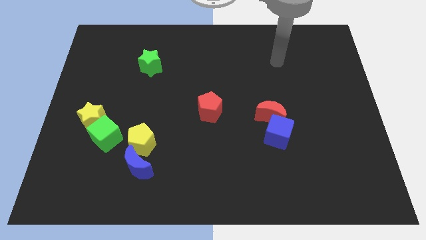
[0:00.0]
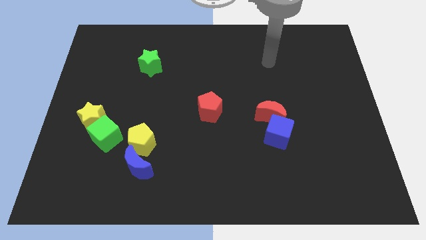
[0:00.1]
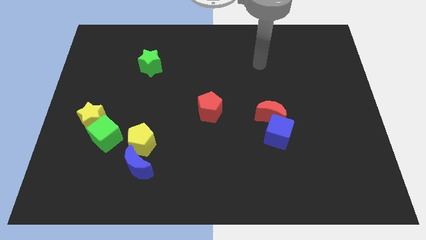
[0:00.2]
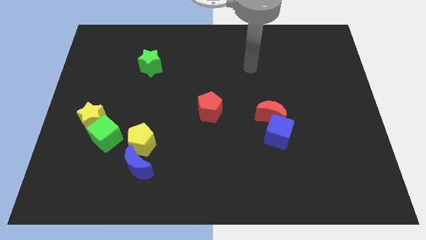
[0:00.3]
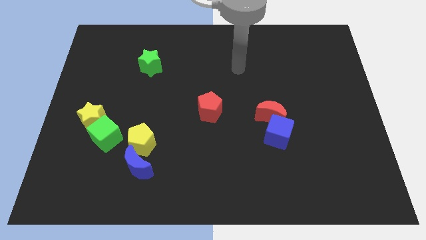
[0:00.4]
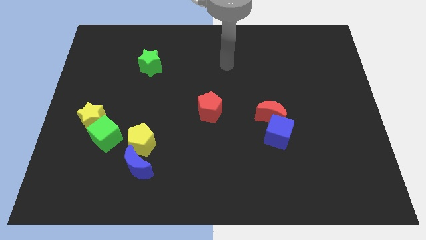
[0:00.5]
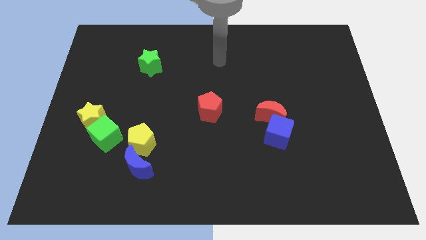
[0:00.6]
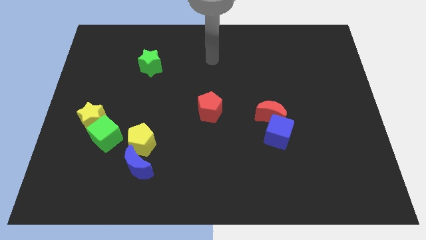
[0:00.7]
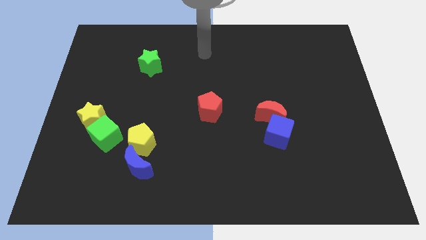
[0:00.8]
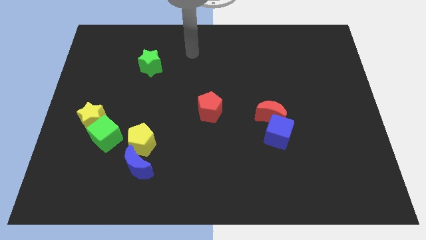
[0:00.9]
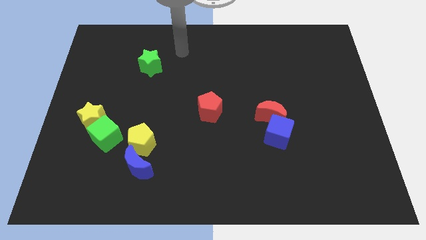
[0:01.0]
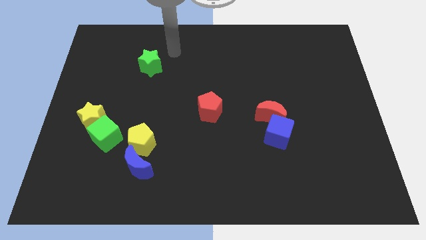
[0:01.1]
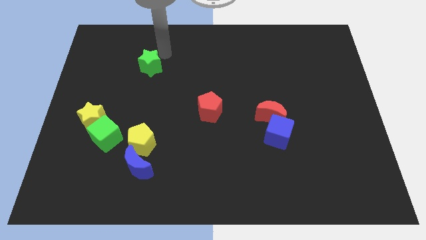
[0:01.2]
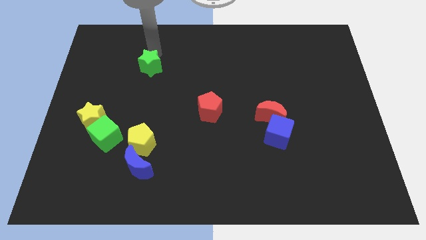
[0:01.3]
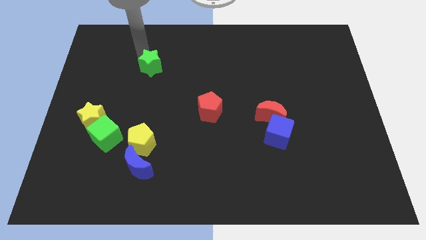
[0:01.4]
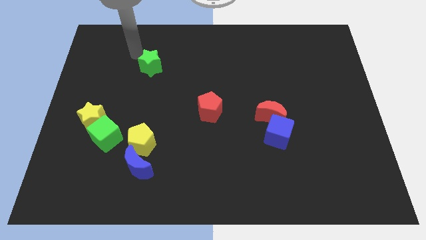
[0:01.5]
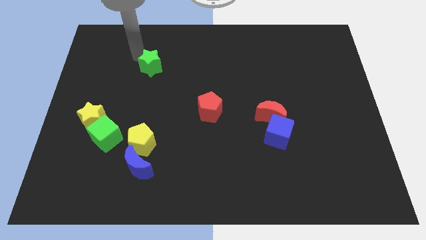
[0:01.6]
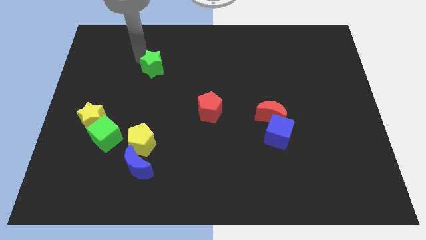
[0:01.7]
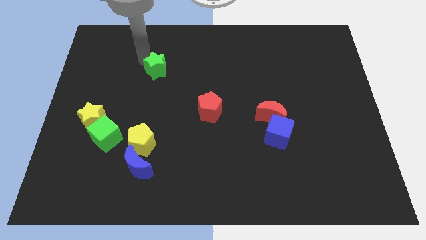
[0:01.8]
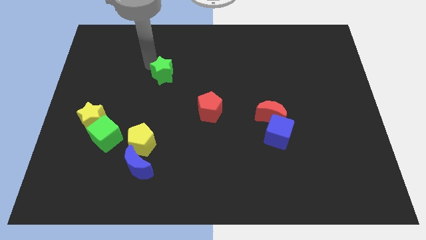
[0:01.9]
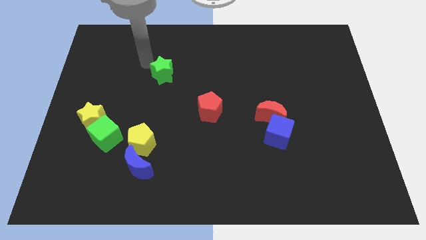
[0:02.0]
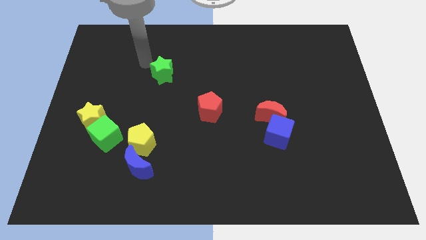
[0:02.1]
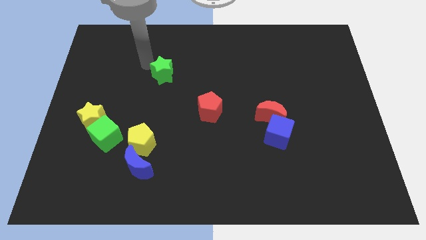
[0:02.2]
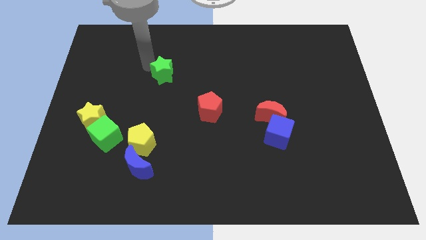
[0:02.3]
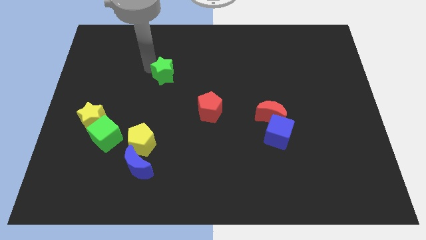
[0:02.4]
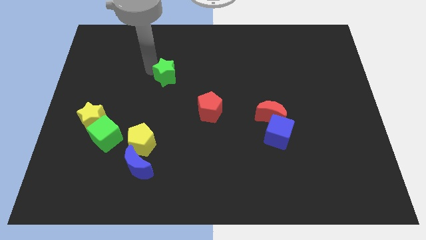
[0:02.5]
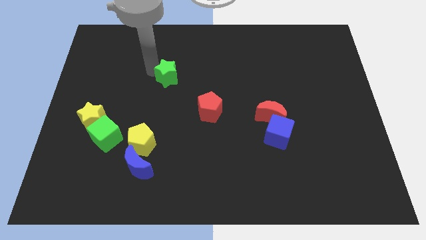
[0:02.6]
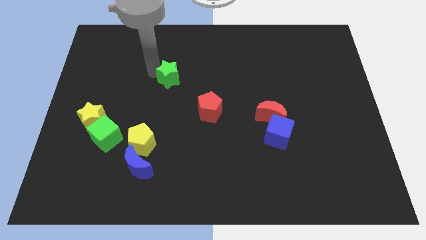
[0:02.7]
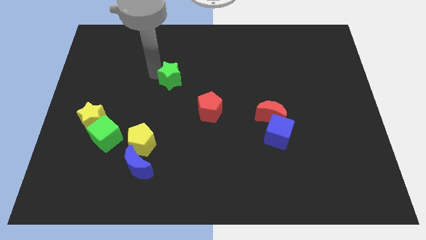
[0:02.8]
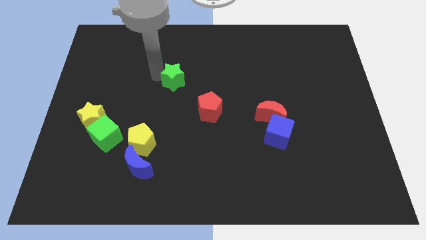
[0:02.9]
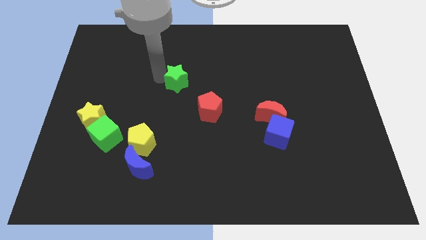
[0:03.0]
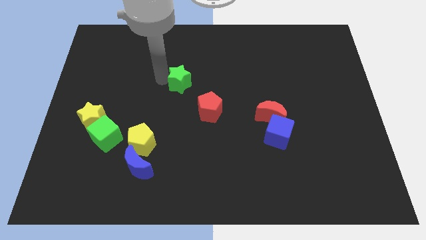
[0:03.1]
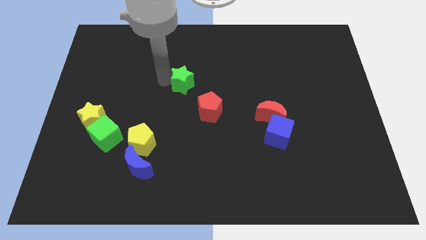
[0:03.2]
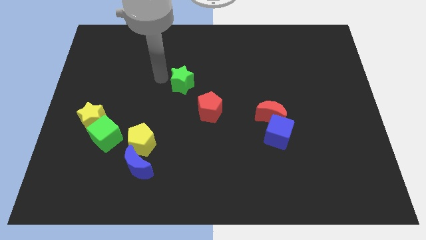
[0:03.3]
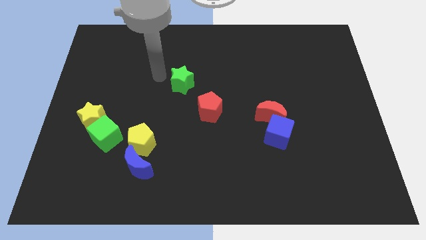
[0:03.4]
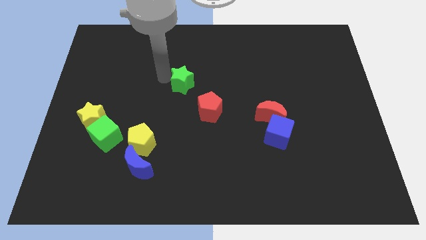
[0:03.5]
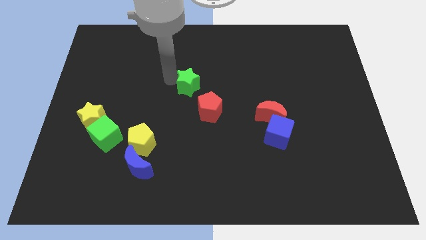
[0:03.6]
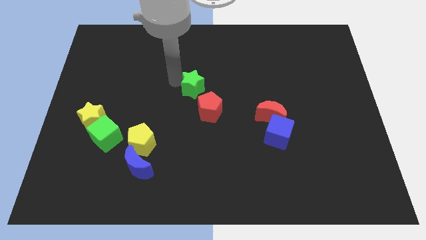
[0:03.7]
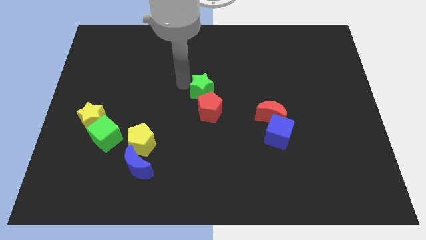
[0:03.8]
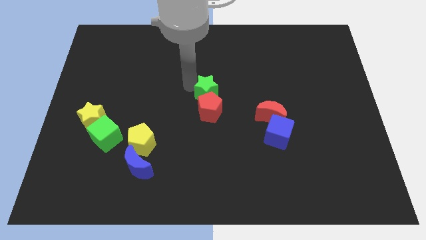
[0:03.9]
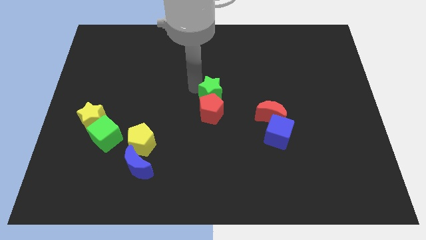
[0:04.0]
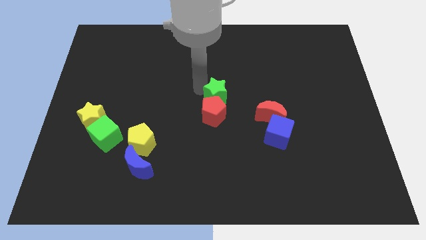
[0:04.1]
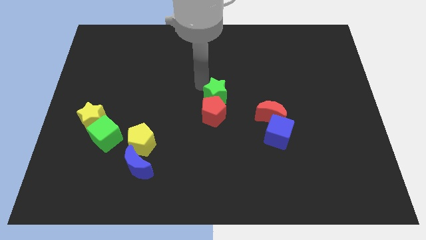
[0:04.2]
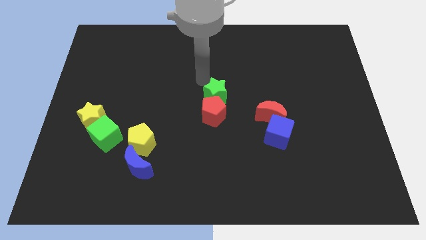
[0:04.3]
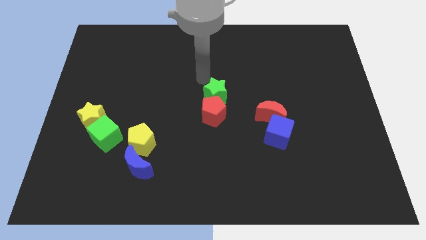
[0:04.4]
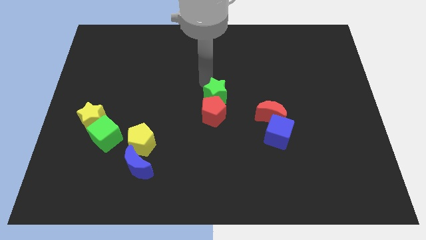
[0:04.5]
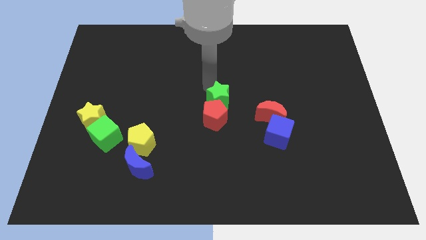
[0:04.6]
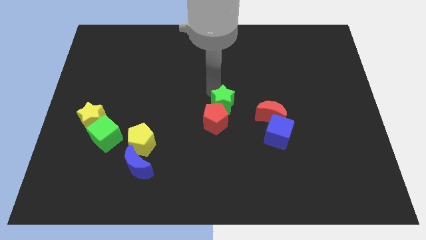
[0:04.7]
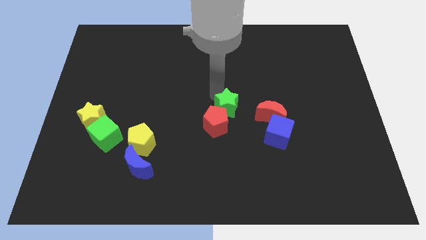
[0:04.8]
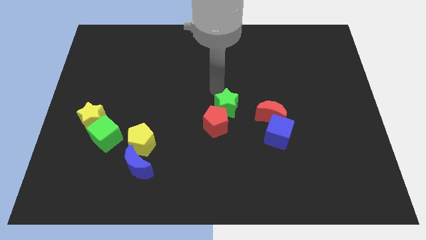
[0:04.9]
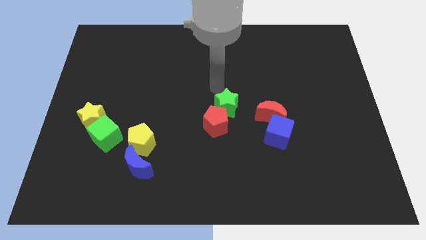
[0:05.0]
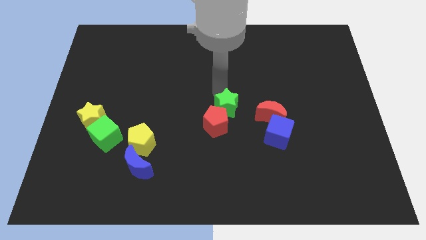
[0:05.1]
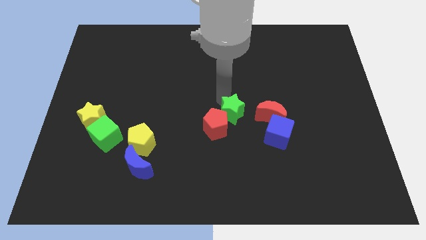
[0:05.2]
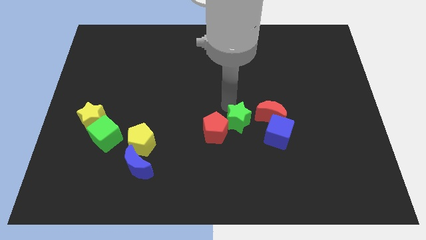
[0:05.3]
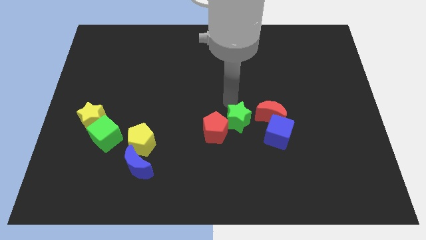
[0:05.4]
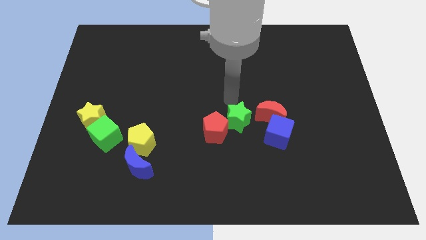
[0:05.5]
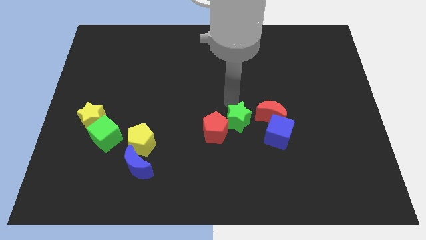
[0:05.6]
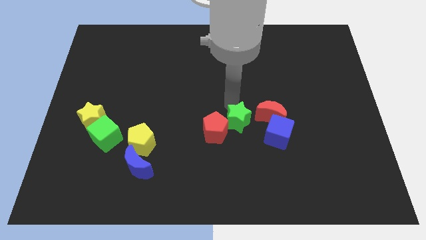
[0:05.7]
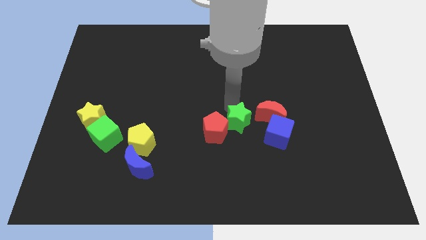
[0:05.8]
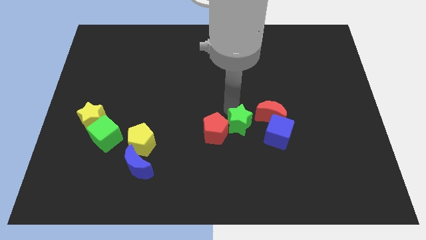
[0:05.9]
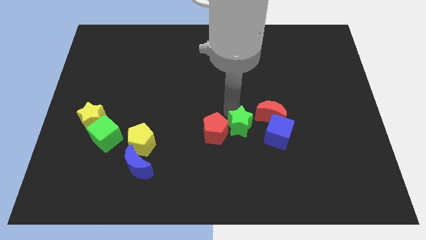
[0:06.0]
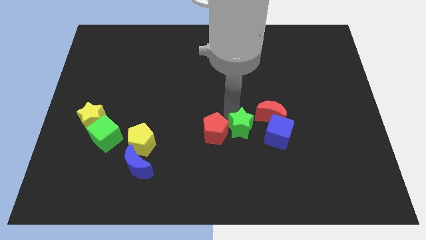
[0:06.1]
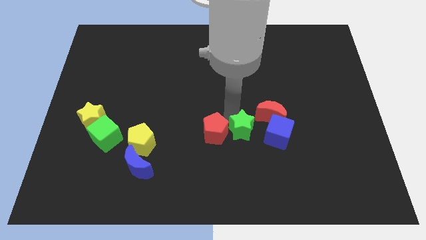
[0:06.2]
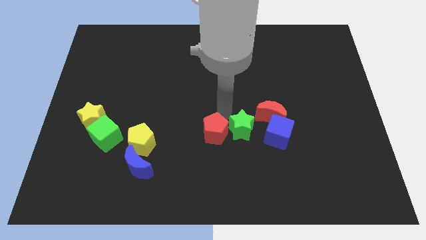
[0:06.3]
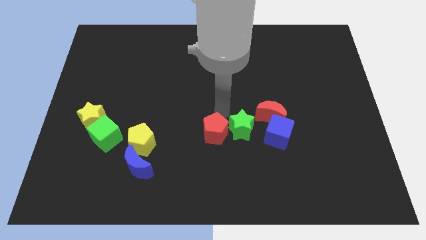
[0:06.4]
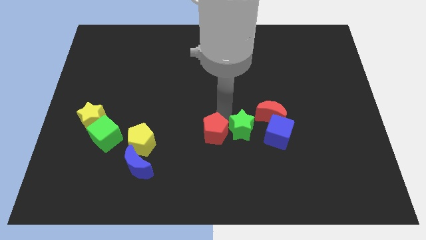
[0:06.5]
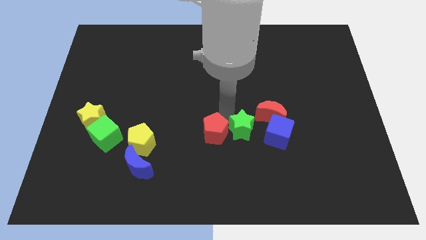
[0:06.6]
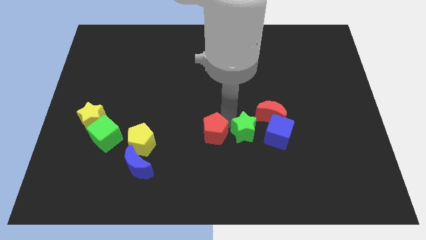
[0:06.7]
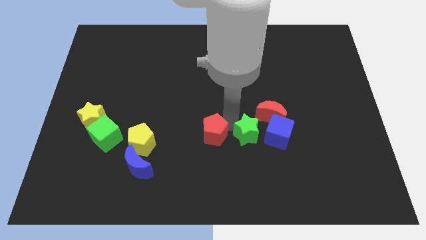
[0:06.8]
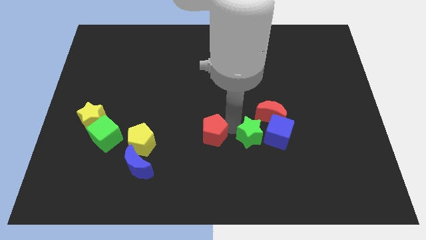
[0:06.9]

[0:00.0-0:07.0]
push the green star to the bottom side of the red moon
